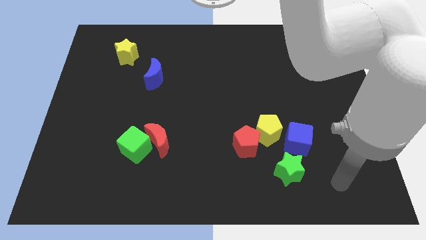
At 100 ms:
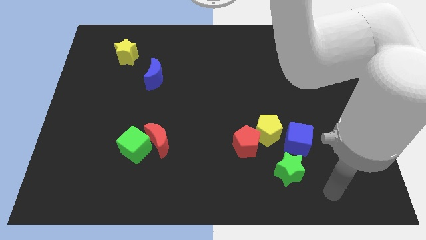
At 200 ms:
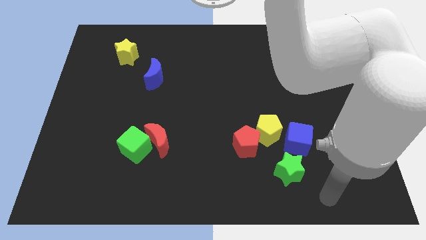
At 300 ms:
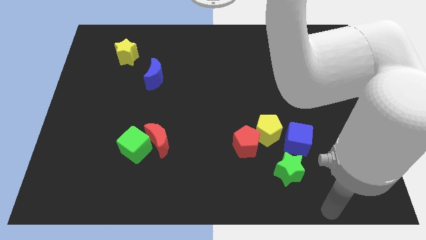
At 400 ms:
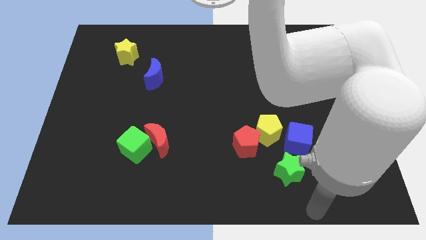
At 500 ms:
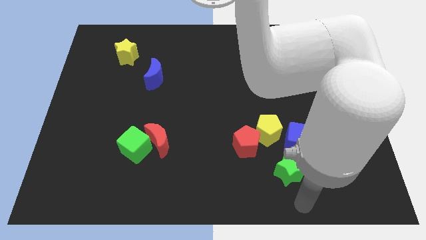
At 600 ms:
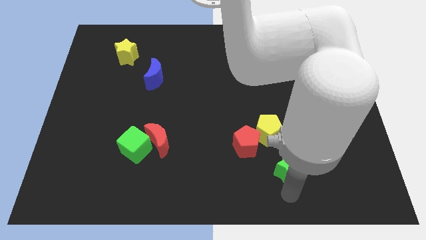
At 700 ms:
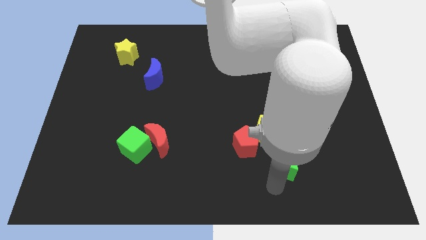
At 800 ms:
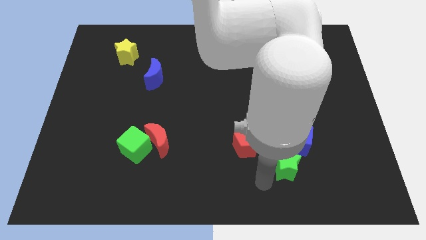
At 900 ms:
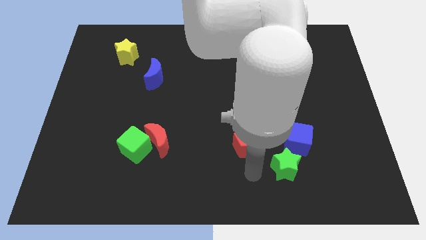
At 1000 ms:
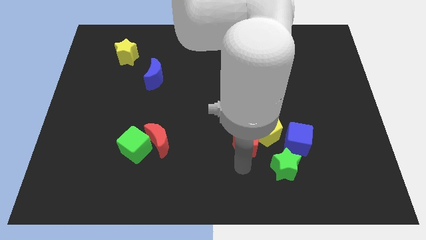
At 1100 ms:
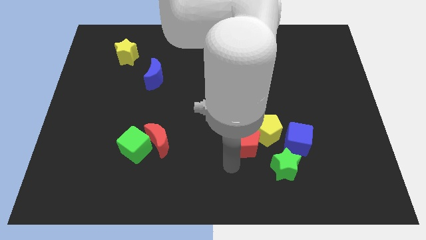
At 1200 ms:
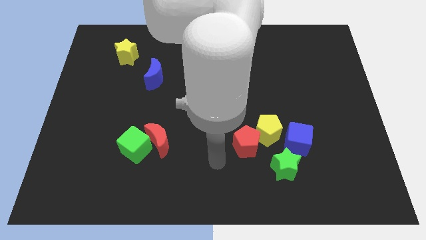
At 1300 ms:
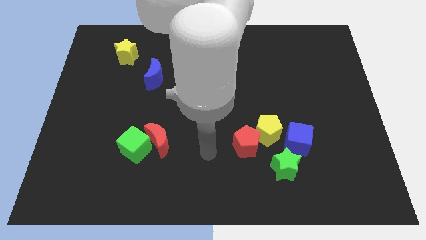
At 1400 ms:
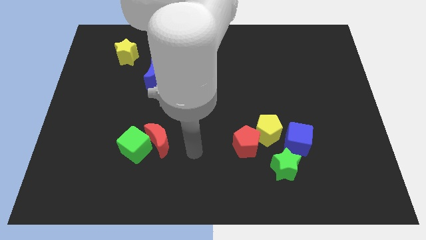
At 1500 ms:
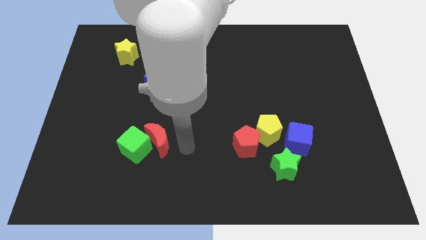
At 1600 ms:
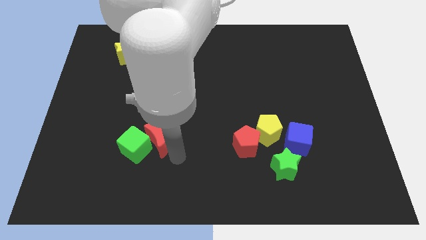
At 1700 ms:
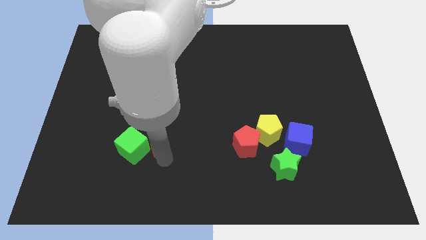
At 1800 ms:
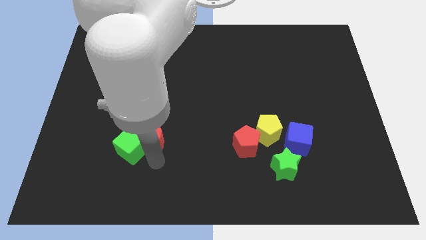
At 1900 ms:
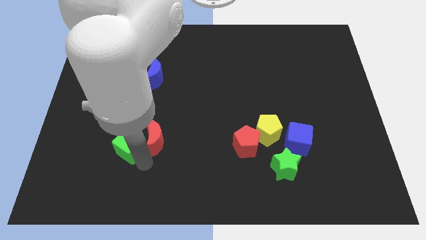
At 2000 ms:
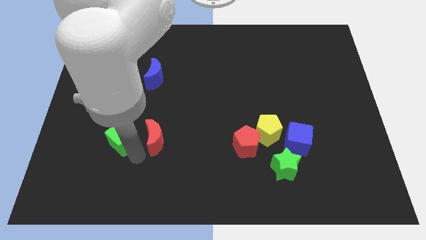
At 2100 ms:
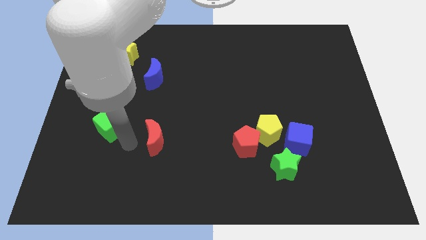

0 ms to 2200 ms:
separate the red moon from the green cube

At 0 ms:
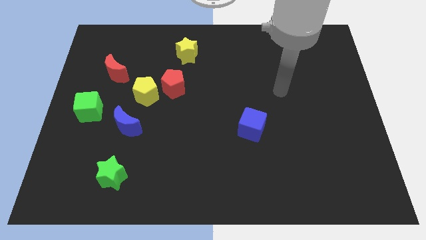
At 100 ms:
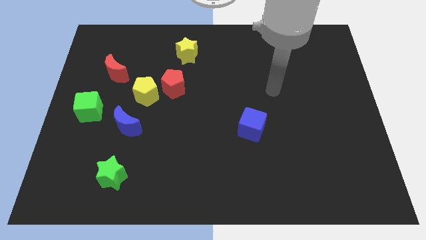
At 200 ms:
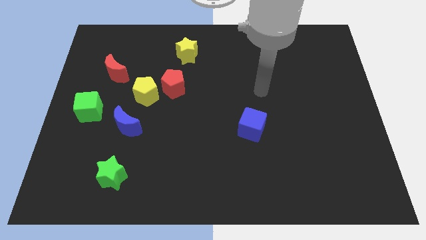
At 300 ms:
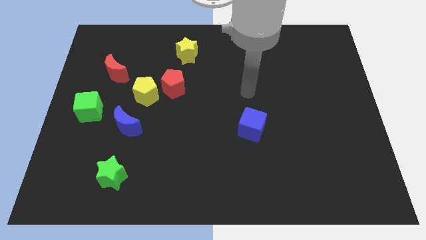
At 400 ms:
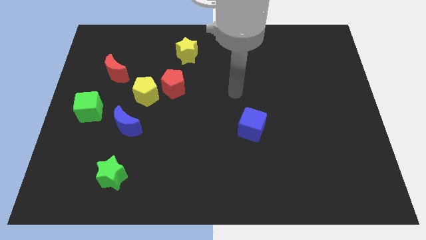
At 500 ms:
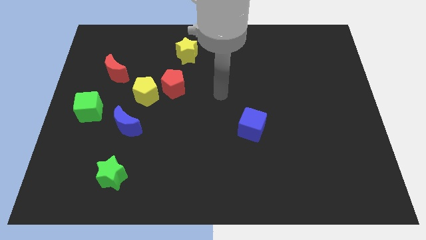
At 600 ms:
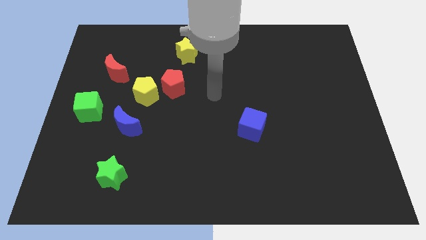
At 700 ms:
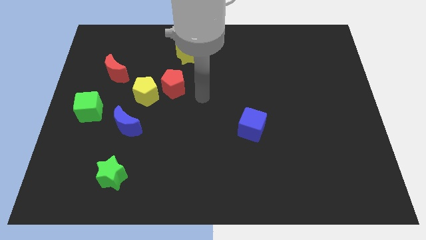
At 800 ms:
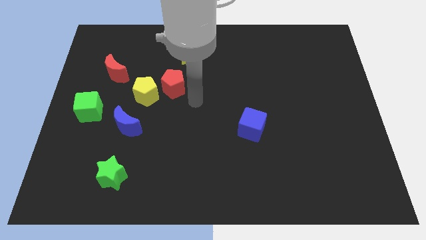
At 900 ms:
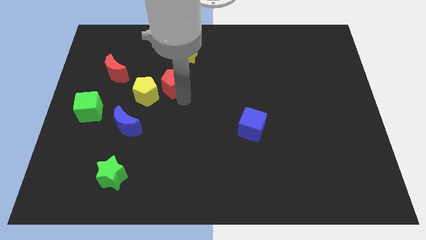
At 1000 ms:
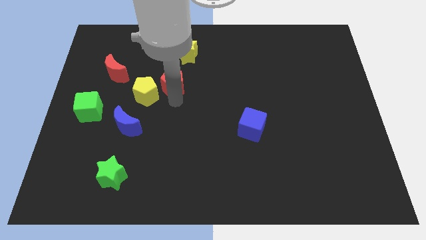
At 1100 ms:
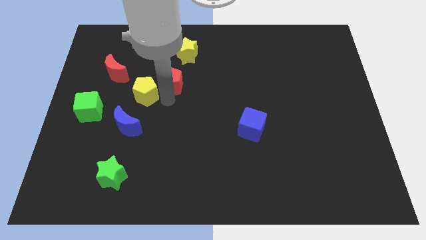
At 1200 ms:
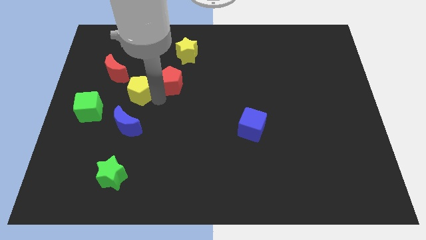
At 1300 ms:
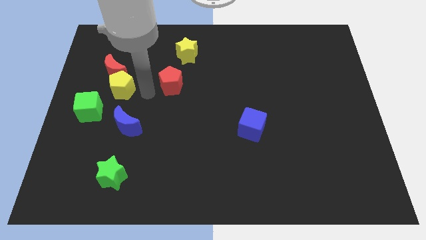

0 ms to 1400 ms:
separate the red pentagon from the yellow pentagon

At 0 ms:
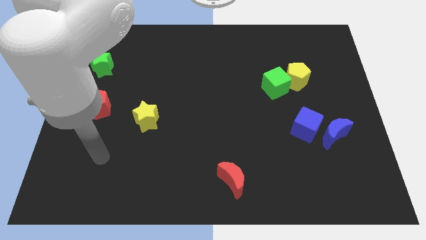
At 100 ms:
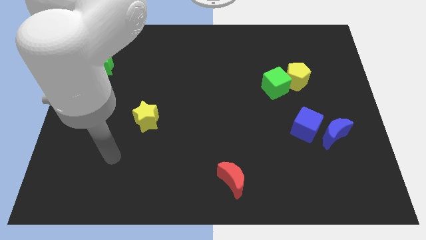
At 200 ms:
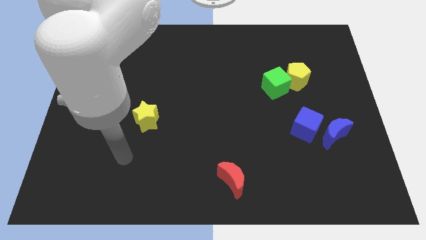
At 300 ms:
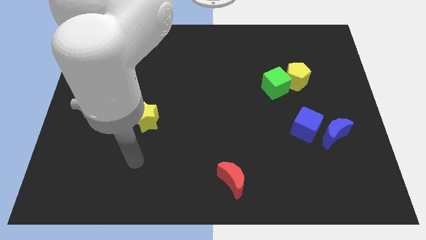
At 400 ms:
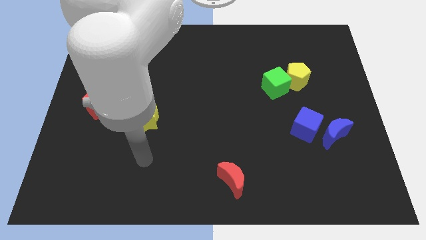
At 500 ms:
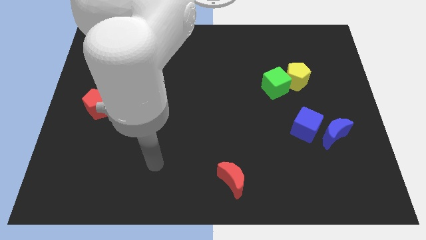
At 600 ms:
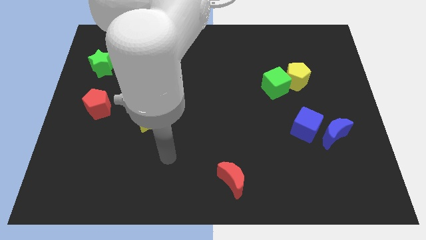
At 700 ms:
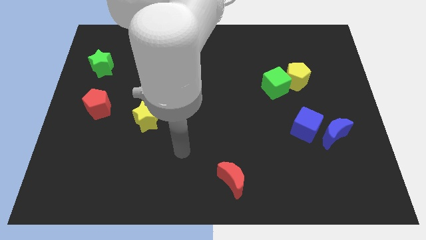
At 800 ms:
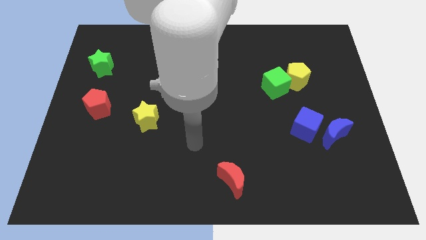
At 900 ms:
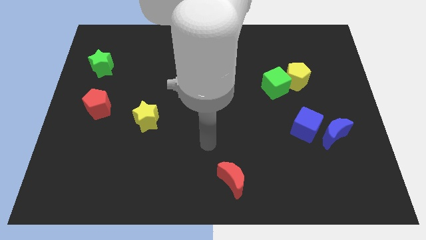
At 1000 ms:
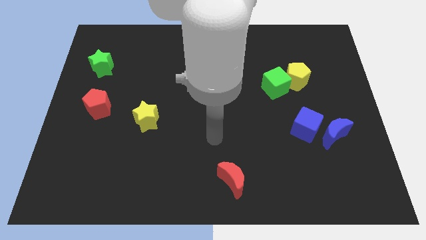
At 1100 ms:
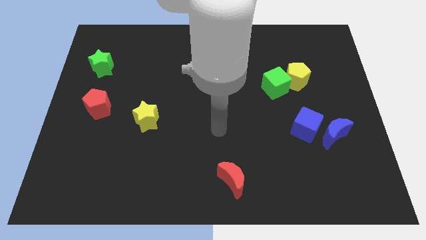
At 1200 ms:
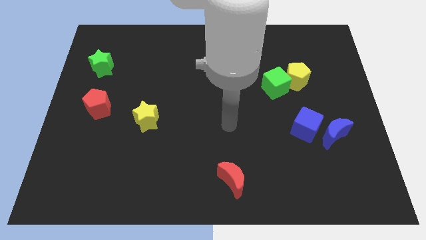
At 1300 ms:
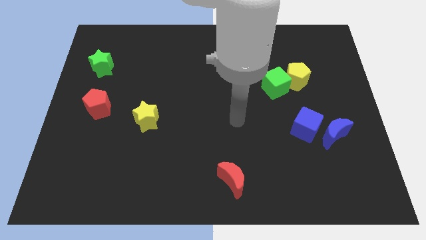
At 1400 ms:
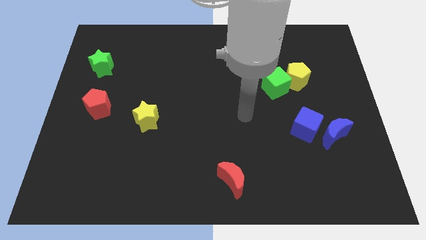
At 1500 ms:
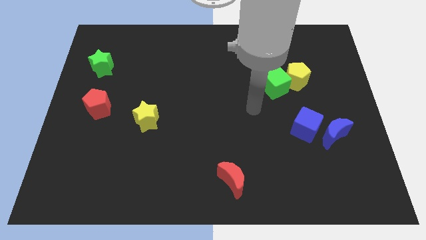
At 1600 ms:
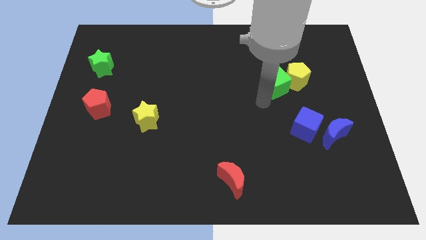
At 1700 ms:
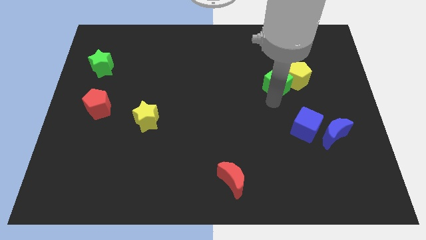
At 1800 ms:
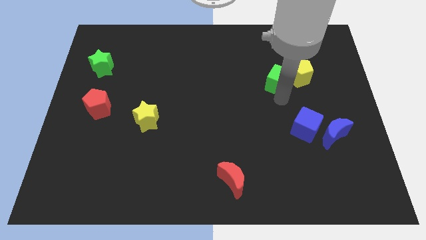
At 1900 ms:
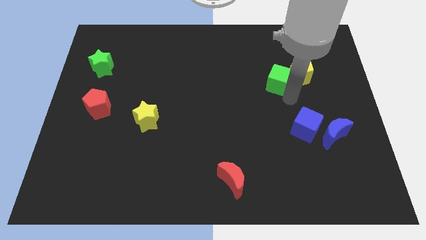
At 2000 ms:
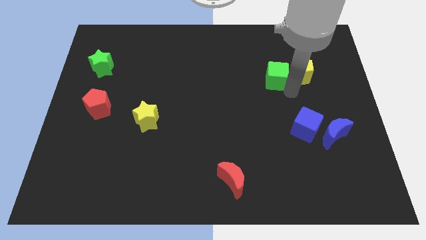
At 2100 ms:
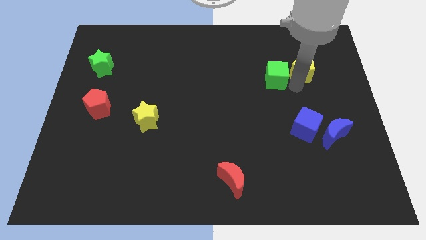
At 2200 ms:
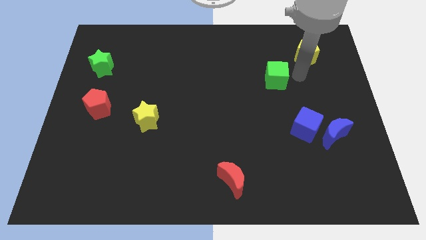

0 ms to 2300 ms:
pull the green cube apart from the yellow pentagon

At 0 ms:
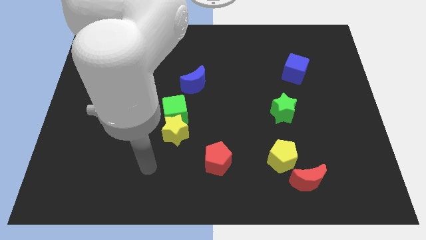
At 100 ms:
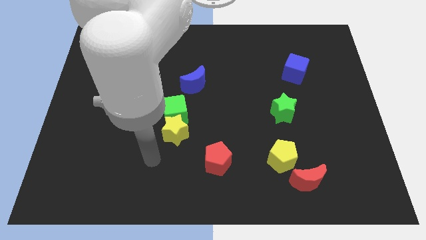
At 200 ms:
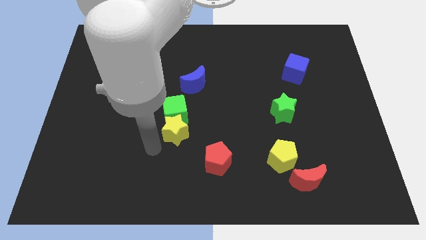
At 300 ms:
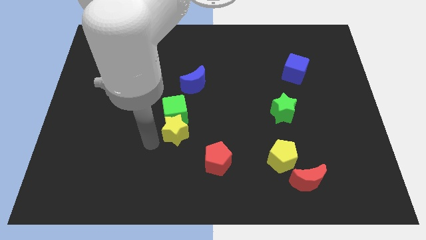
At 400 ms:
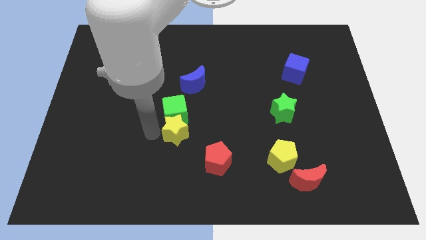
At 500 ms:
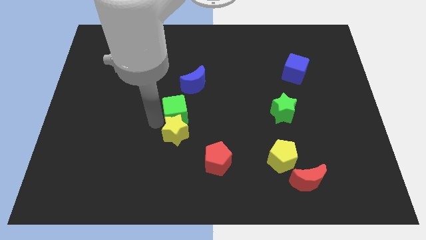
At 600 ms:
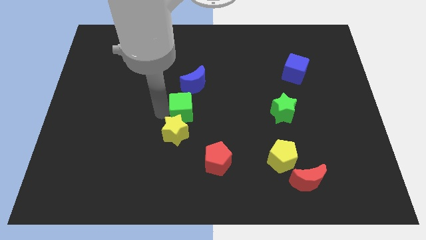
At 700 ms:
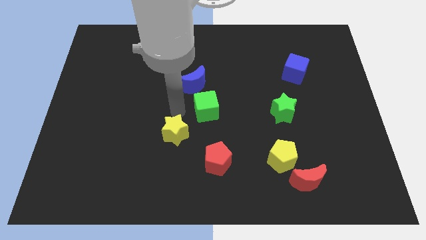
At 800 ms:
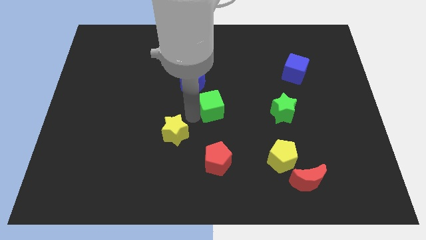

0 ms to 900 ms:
separate the yellow star from the green cube

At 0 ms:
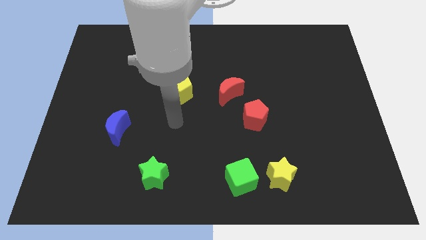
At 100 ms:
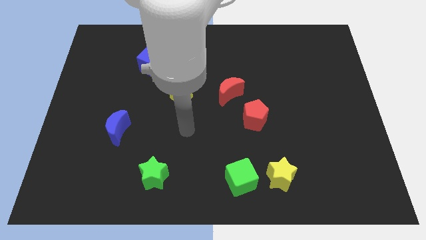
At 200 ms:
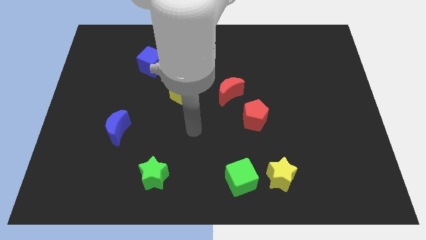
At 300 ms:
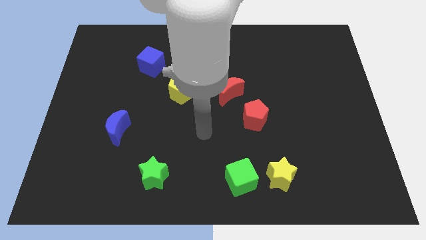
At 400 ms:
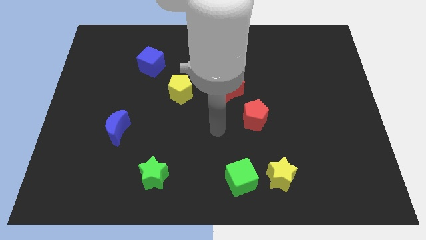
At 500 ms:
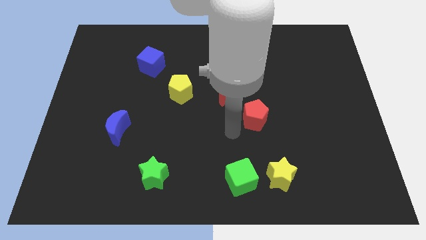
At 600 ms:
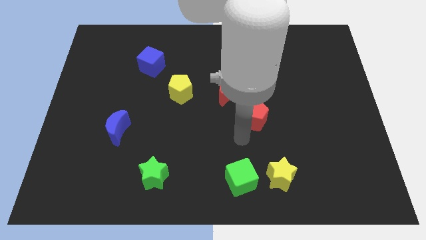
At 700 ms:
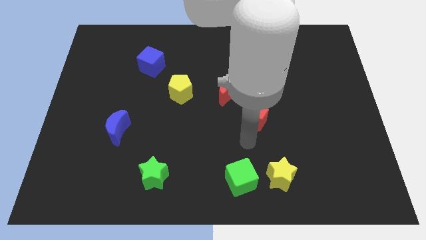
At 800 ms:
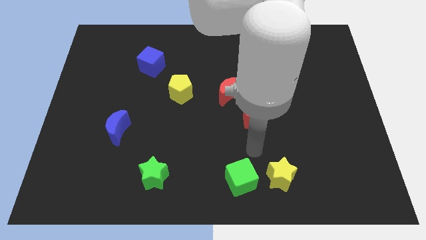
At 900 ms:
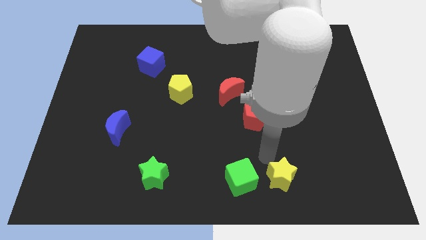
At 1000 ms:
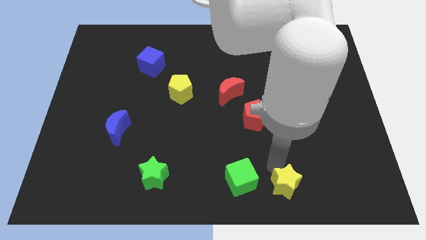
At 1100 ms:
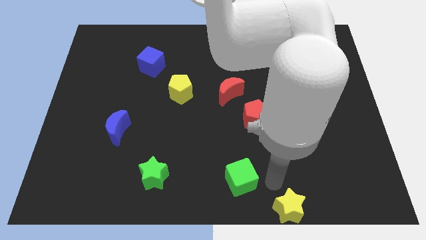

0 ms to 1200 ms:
pull the green cube apart from the yellow star

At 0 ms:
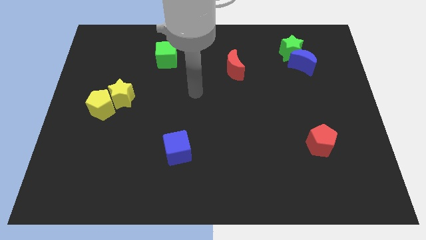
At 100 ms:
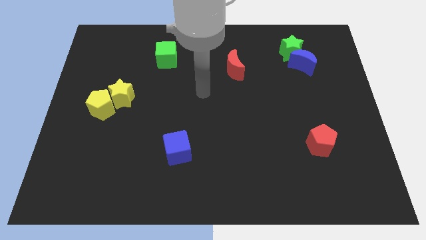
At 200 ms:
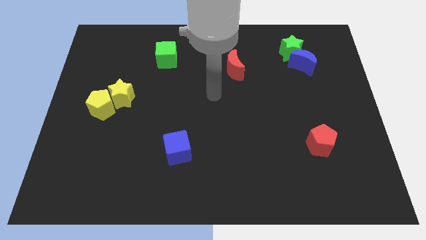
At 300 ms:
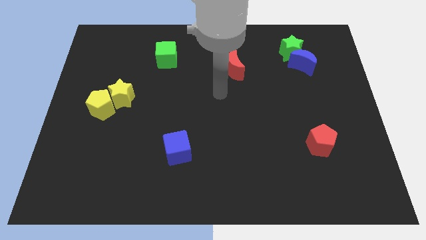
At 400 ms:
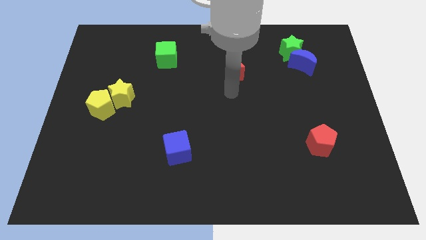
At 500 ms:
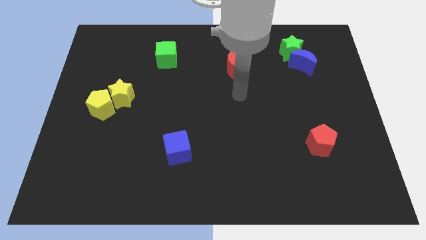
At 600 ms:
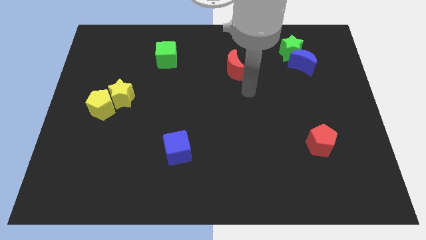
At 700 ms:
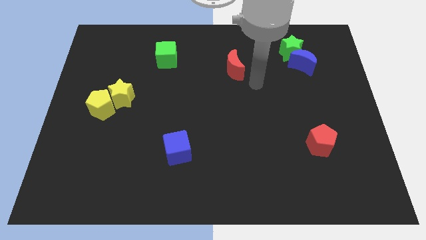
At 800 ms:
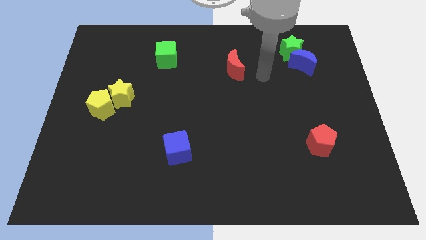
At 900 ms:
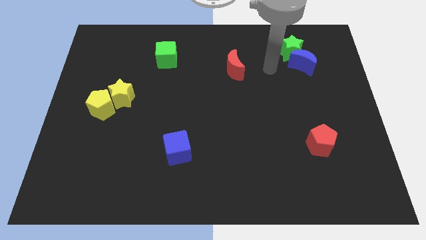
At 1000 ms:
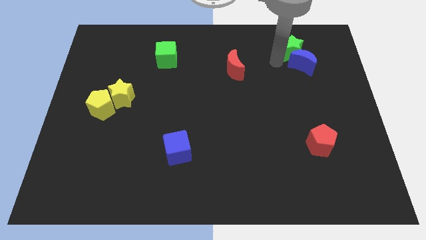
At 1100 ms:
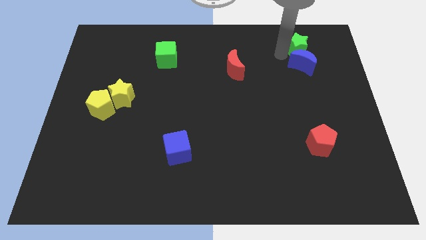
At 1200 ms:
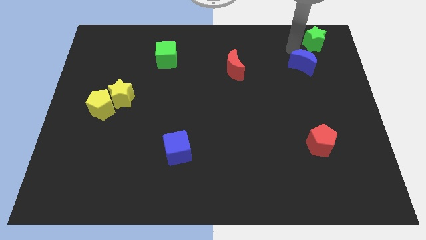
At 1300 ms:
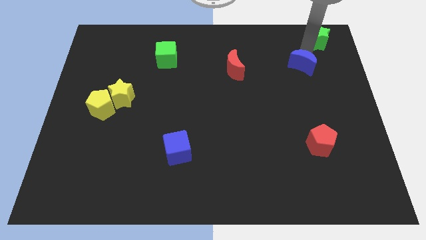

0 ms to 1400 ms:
pull the blue moon apart from the green star

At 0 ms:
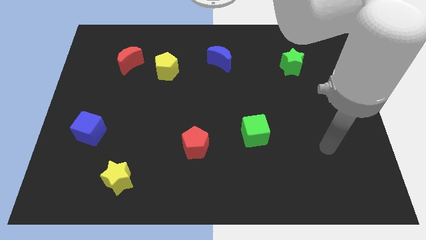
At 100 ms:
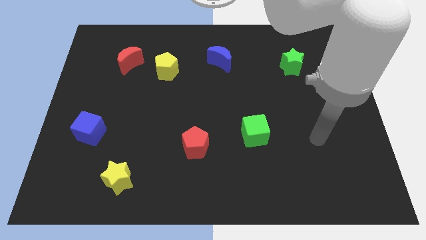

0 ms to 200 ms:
move the red moon away from the yellow pentagon
